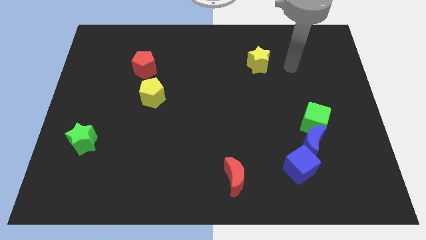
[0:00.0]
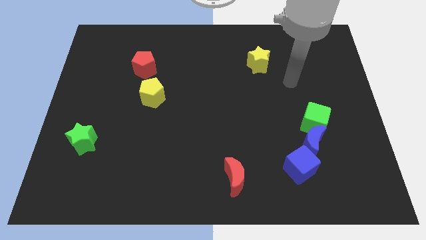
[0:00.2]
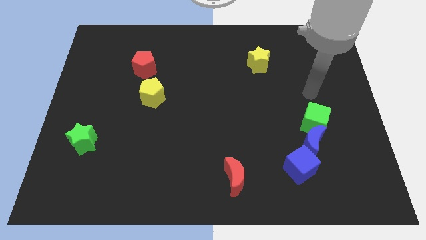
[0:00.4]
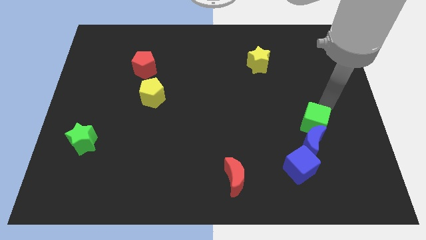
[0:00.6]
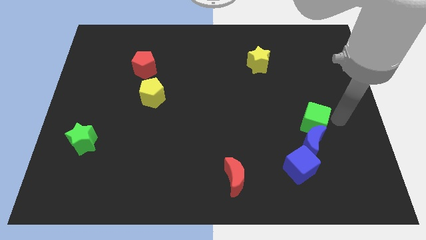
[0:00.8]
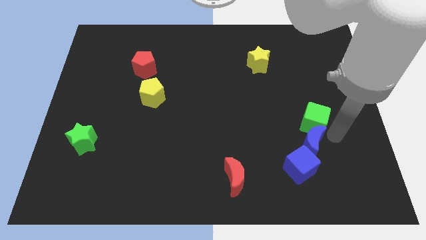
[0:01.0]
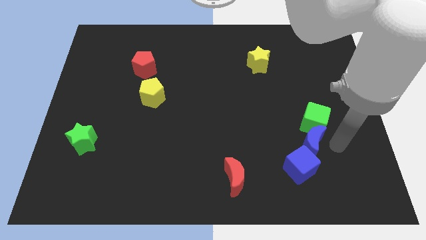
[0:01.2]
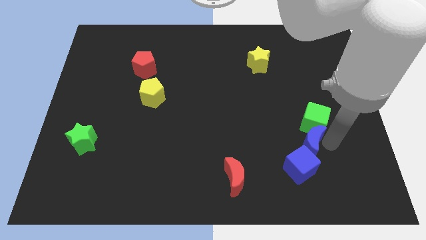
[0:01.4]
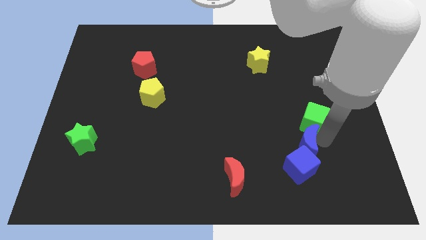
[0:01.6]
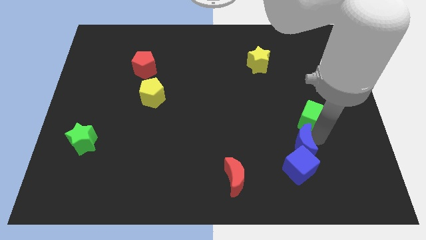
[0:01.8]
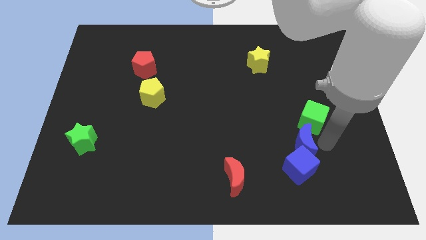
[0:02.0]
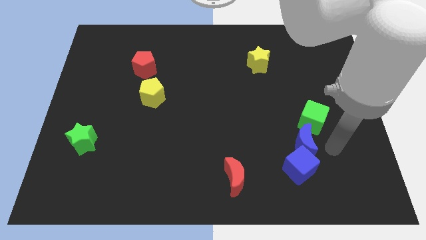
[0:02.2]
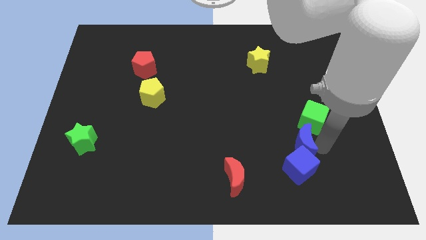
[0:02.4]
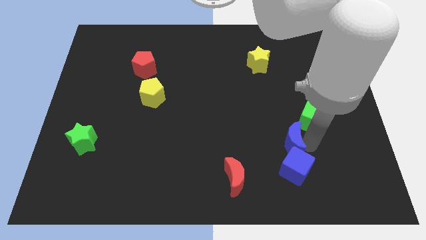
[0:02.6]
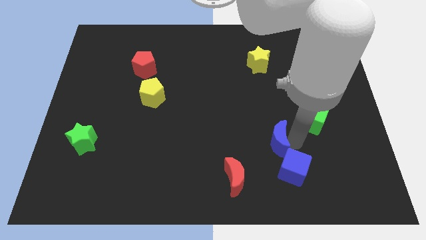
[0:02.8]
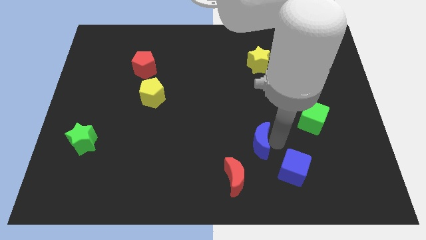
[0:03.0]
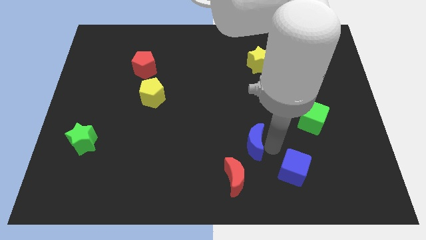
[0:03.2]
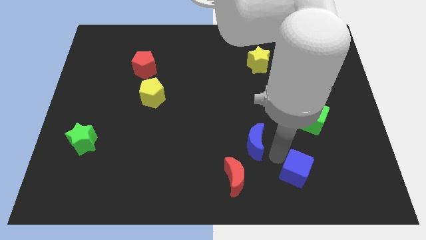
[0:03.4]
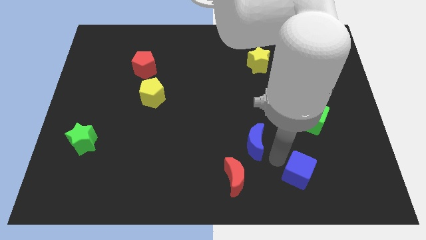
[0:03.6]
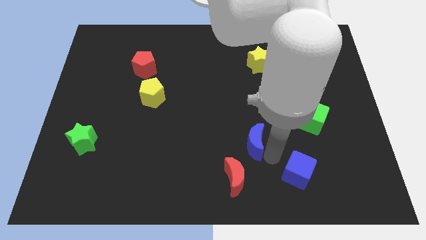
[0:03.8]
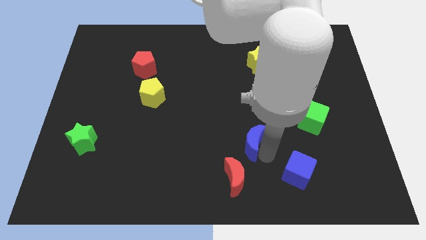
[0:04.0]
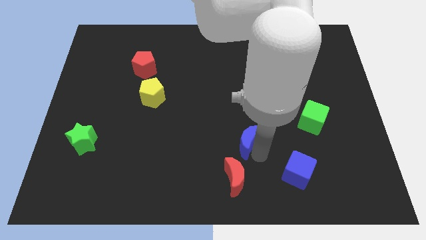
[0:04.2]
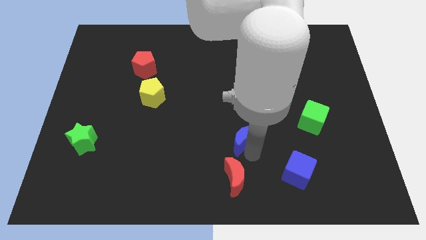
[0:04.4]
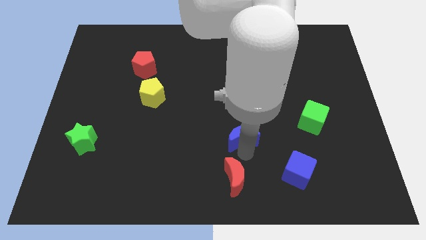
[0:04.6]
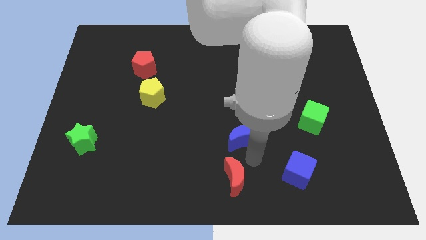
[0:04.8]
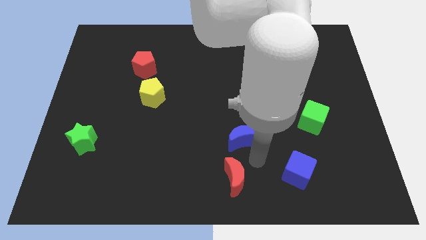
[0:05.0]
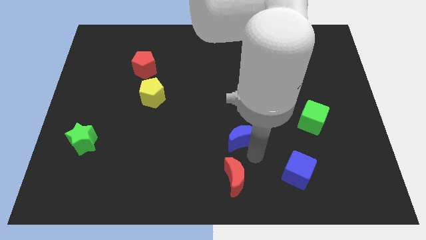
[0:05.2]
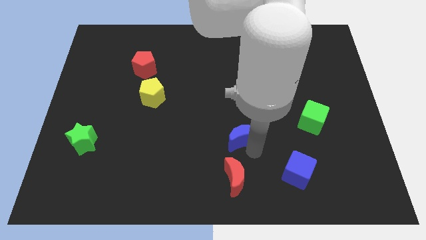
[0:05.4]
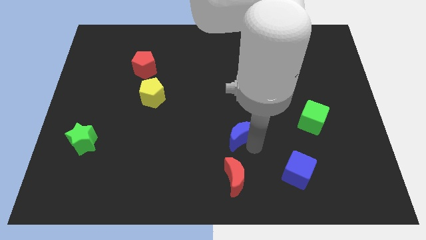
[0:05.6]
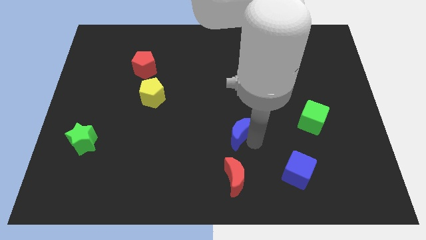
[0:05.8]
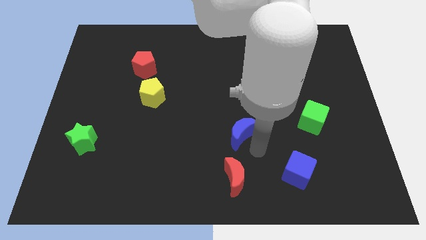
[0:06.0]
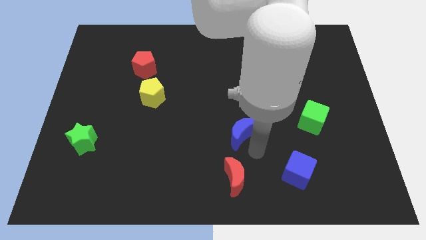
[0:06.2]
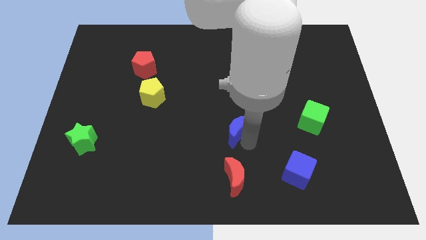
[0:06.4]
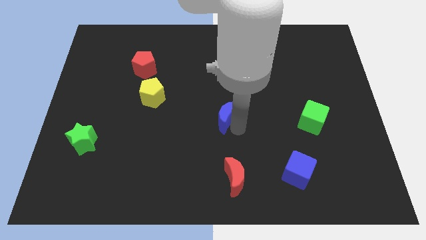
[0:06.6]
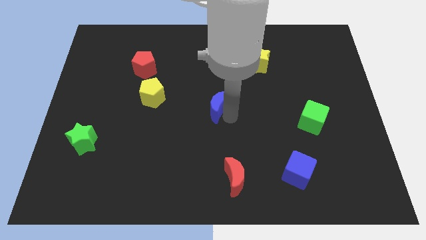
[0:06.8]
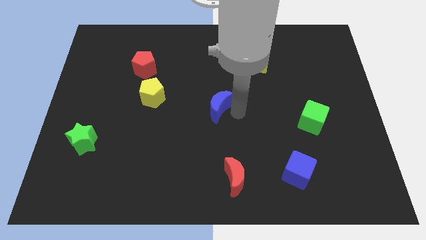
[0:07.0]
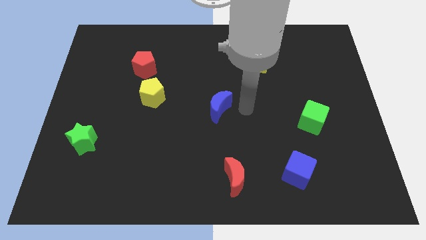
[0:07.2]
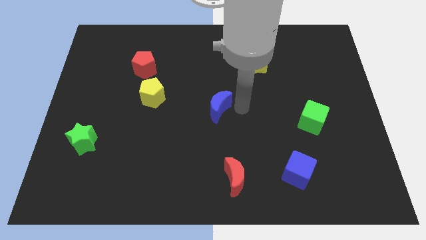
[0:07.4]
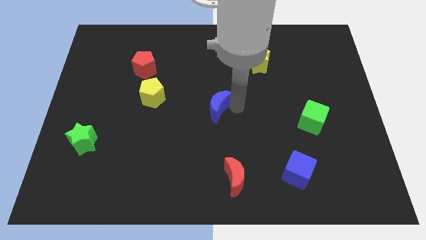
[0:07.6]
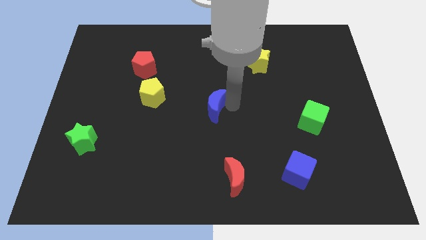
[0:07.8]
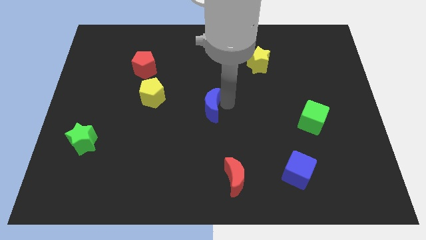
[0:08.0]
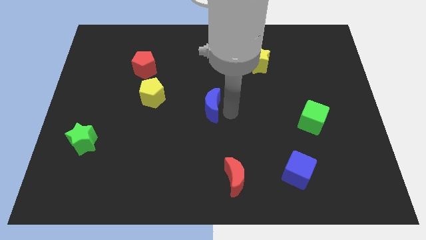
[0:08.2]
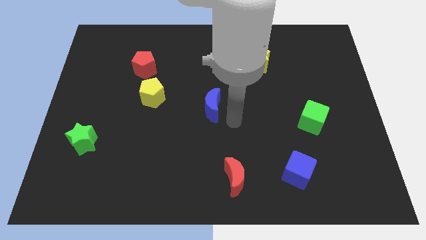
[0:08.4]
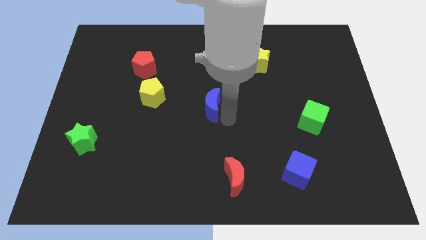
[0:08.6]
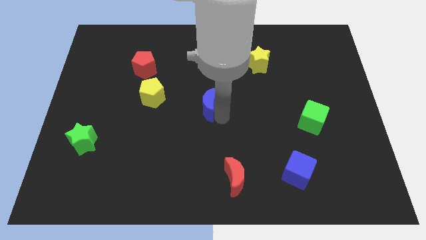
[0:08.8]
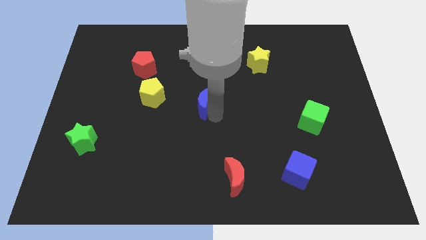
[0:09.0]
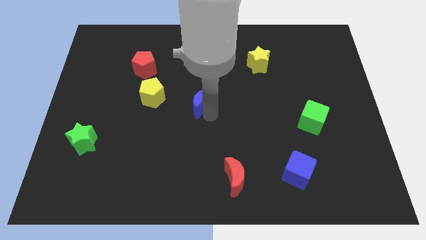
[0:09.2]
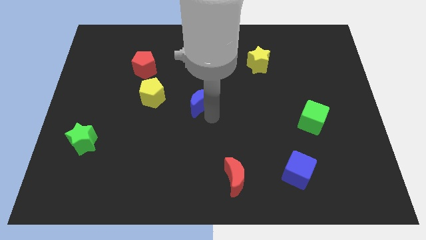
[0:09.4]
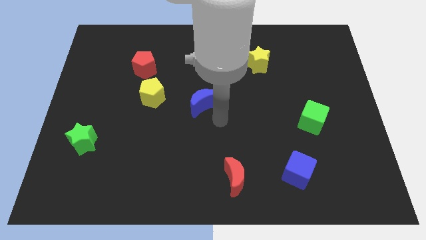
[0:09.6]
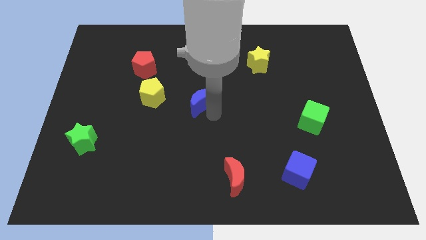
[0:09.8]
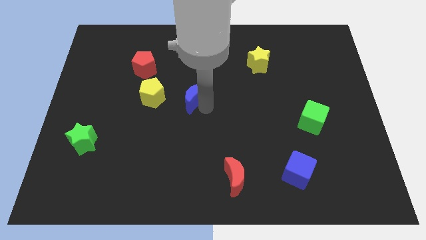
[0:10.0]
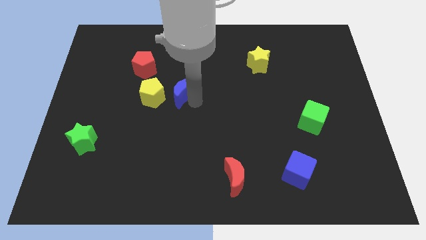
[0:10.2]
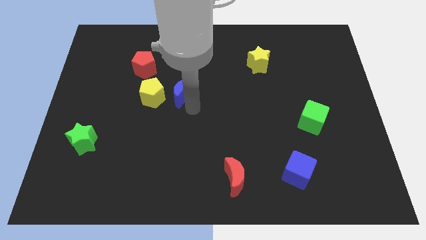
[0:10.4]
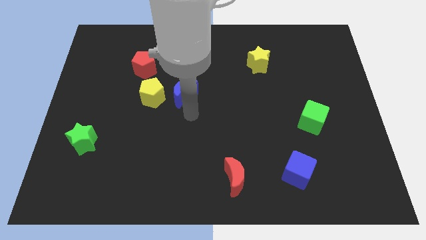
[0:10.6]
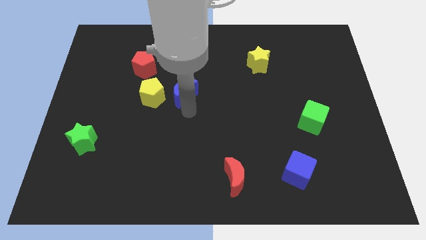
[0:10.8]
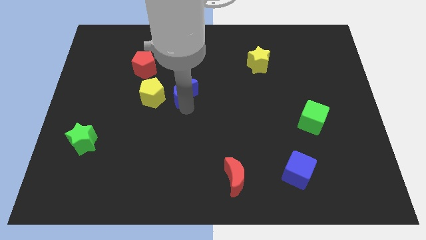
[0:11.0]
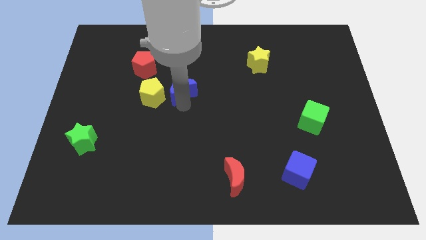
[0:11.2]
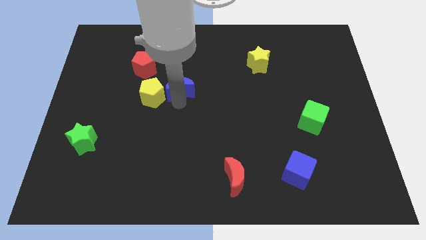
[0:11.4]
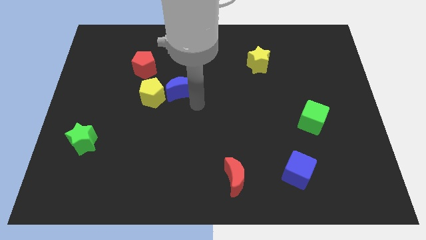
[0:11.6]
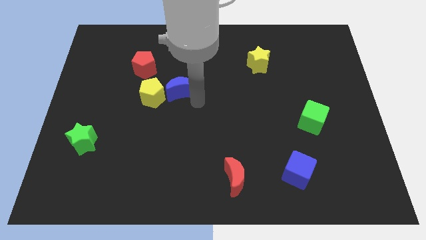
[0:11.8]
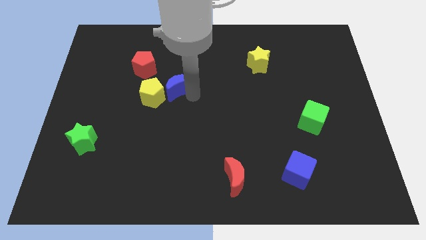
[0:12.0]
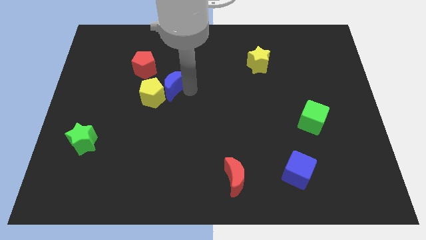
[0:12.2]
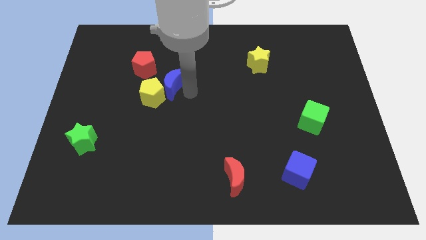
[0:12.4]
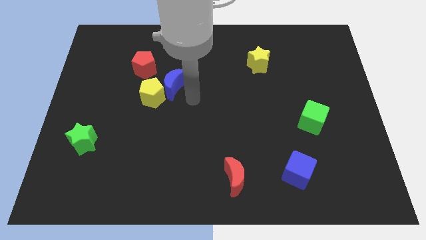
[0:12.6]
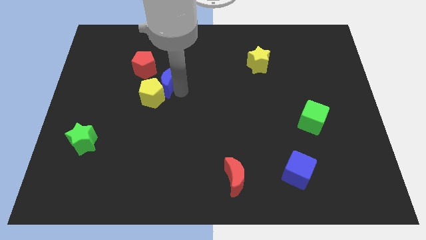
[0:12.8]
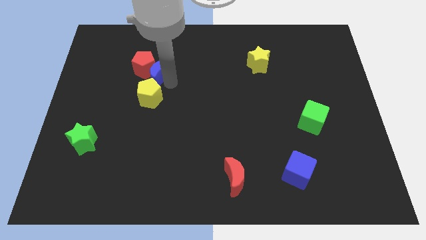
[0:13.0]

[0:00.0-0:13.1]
put the blue moon to the red pentagon

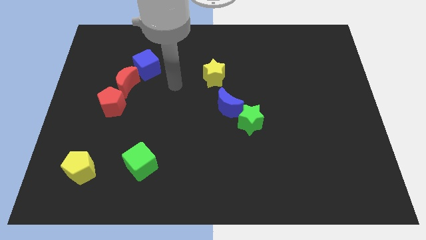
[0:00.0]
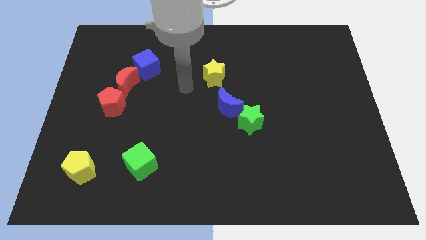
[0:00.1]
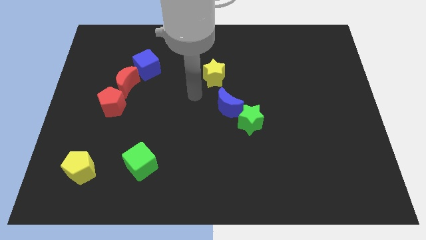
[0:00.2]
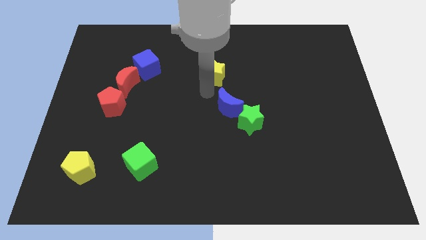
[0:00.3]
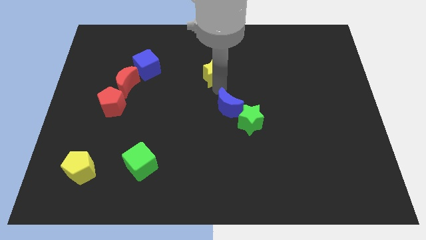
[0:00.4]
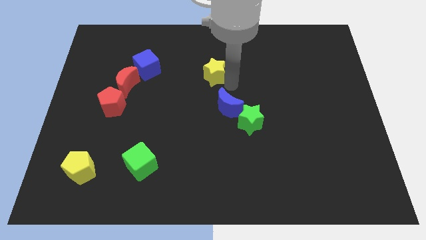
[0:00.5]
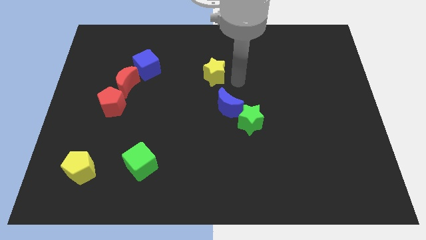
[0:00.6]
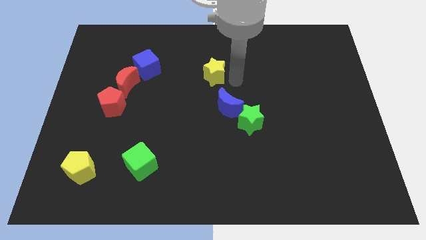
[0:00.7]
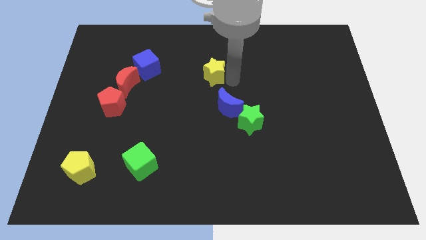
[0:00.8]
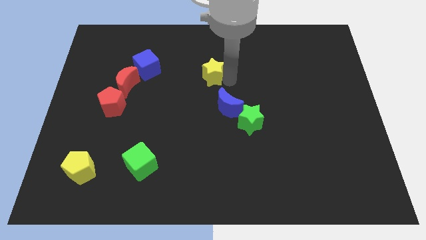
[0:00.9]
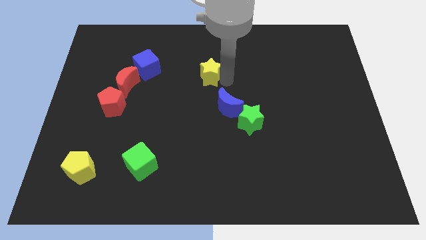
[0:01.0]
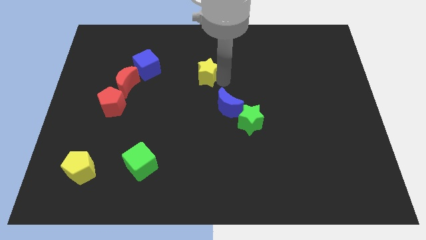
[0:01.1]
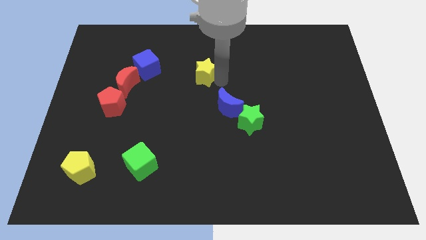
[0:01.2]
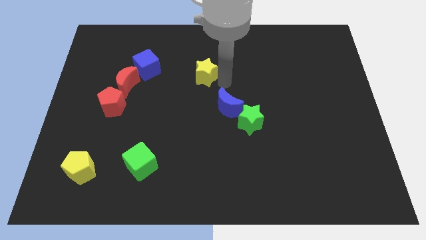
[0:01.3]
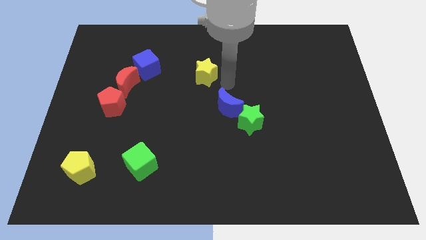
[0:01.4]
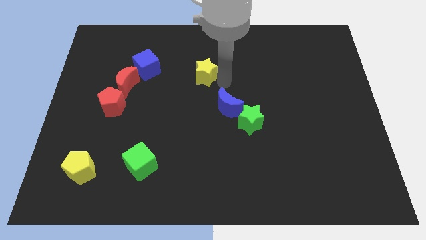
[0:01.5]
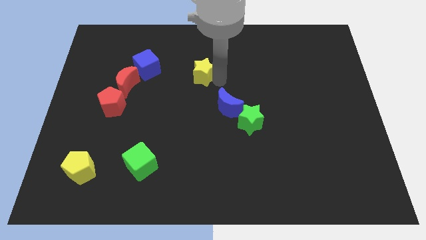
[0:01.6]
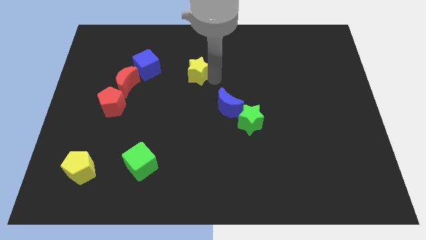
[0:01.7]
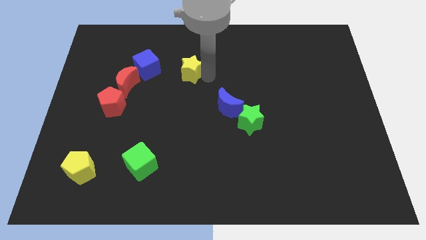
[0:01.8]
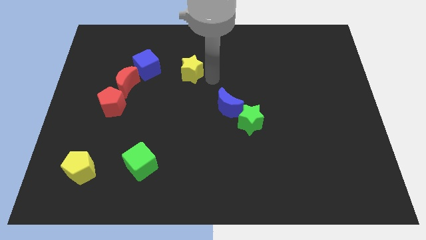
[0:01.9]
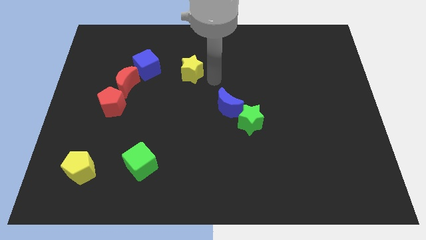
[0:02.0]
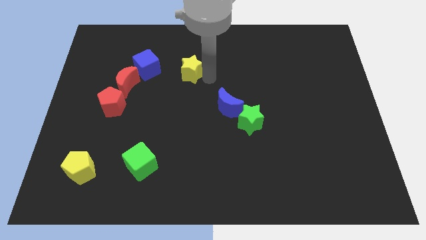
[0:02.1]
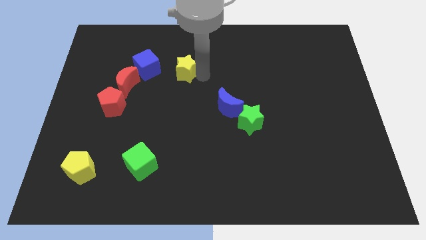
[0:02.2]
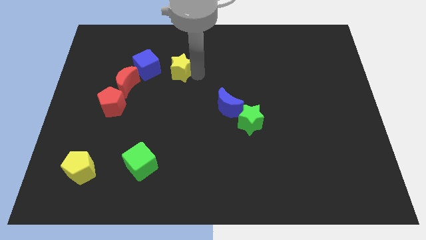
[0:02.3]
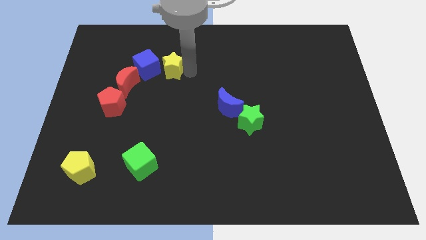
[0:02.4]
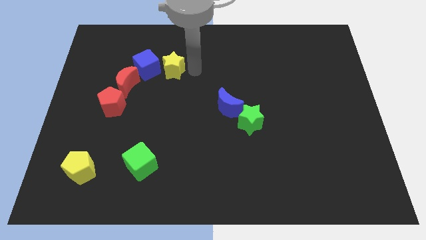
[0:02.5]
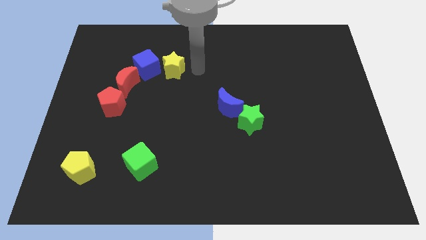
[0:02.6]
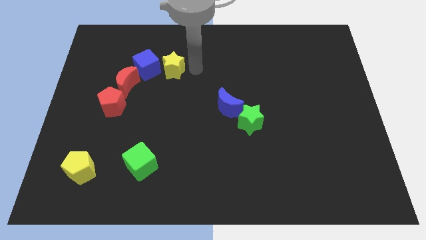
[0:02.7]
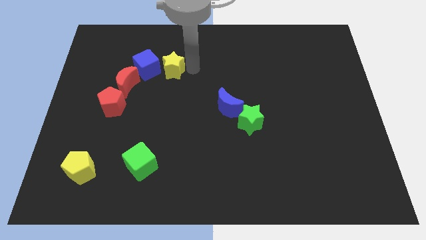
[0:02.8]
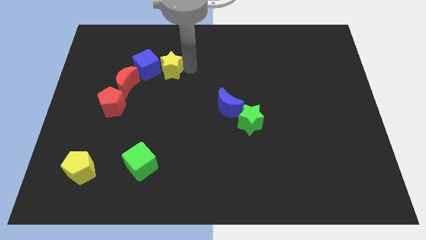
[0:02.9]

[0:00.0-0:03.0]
push the yellow star next to the blue cube
